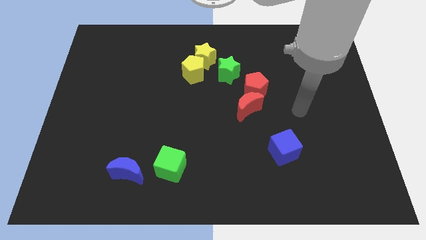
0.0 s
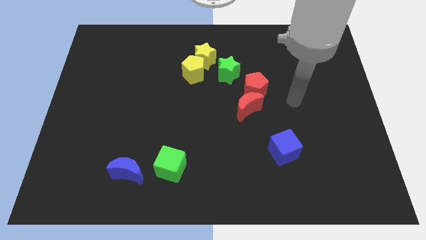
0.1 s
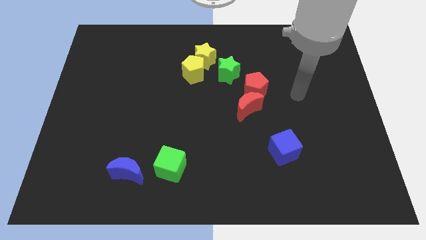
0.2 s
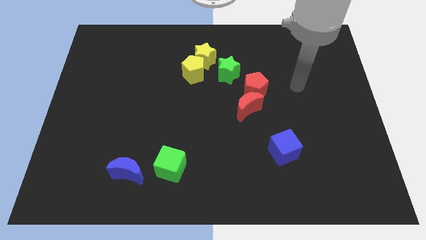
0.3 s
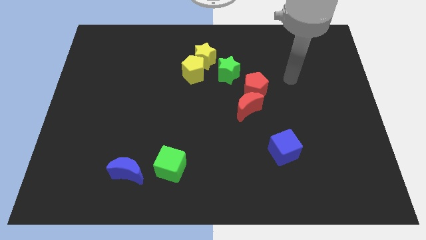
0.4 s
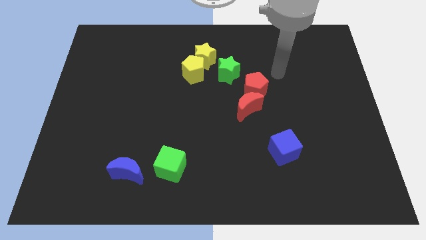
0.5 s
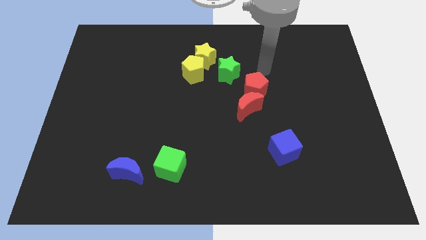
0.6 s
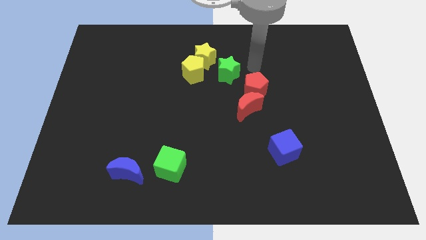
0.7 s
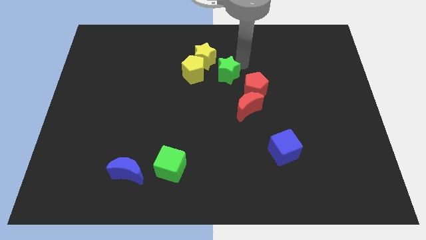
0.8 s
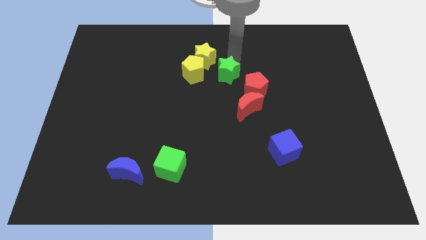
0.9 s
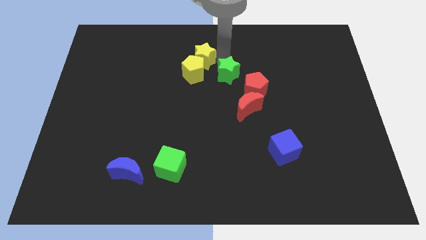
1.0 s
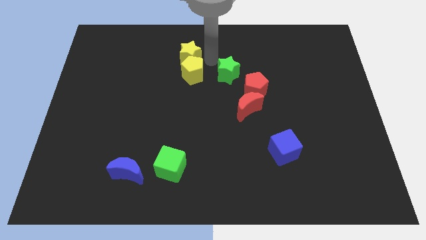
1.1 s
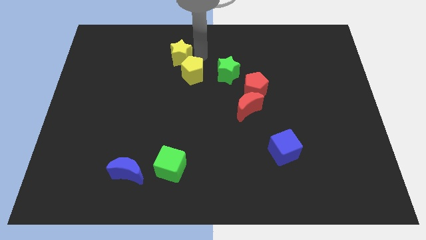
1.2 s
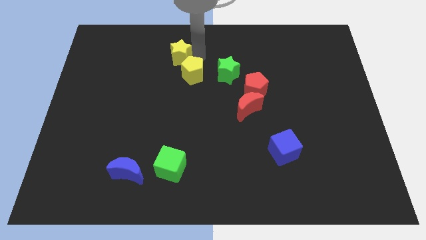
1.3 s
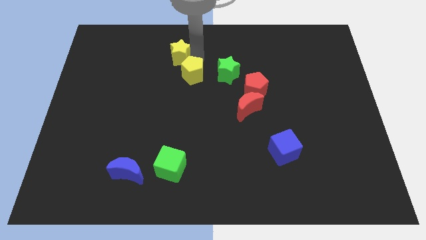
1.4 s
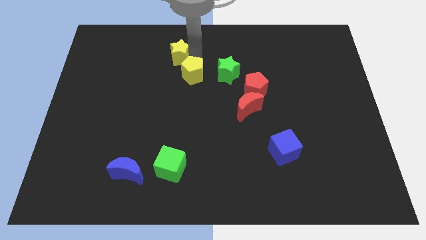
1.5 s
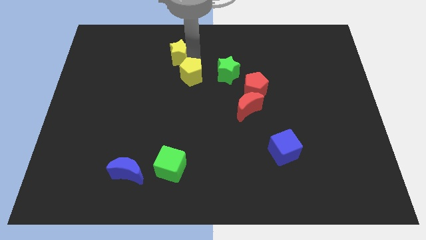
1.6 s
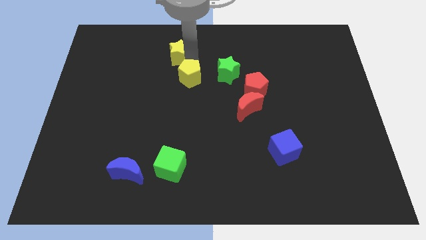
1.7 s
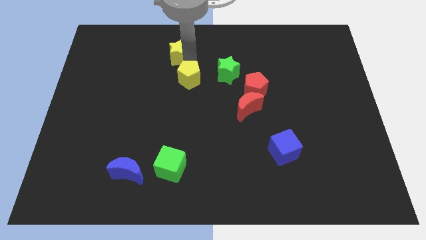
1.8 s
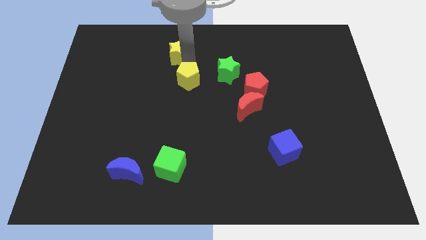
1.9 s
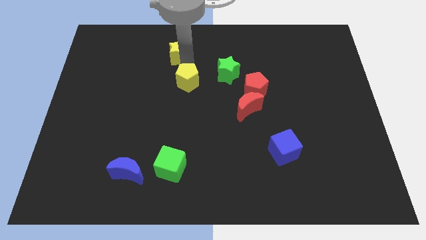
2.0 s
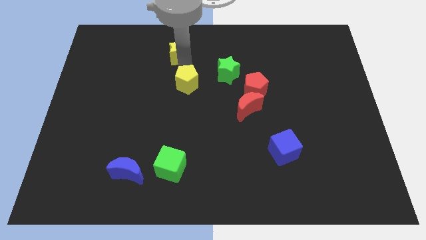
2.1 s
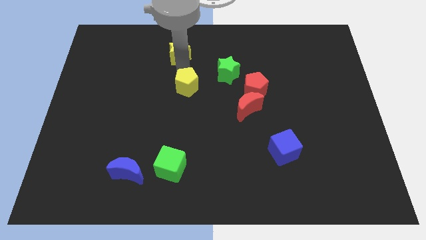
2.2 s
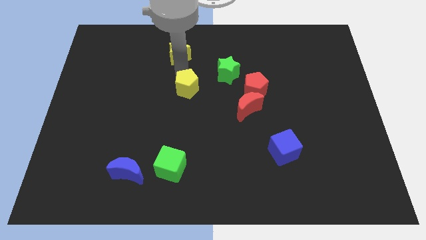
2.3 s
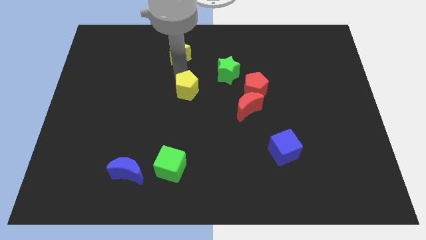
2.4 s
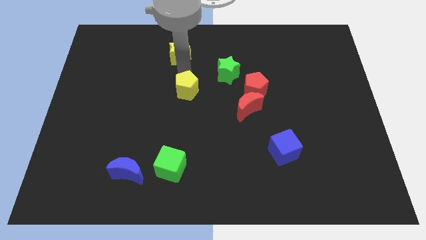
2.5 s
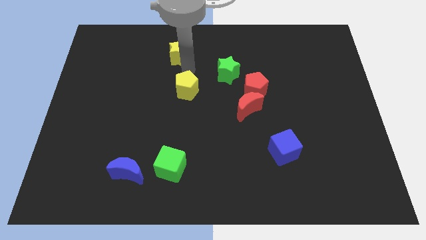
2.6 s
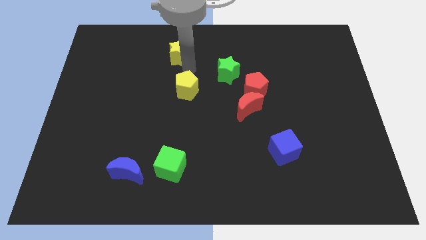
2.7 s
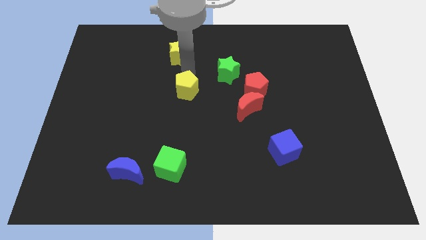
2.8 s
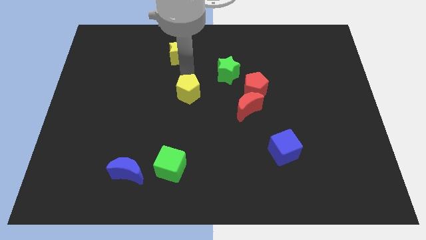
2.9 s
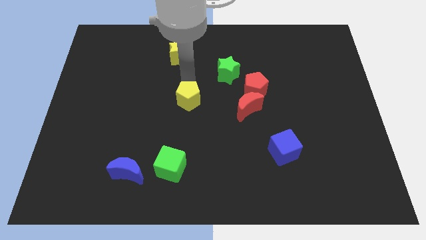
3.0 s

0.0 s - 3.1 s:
slide the yellow pentagon downwards a little bit

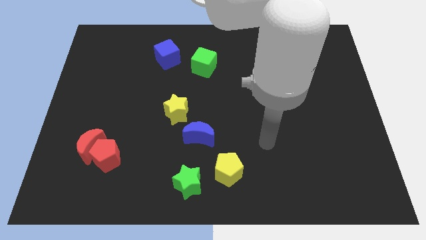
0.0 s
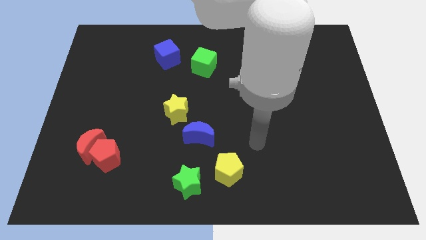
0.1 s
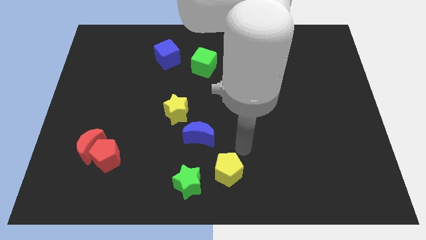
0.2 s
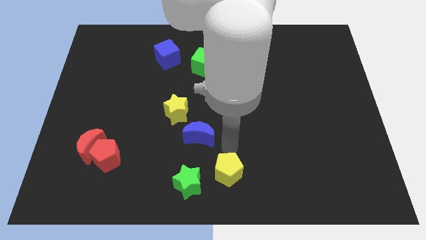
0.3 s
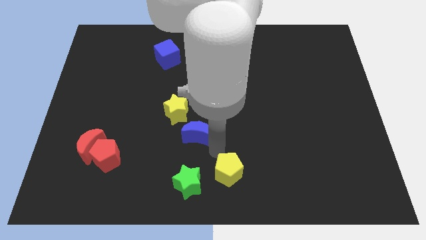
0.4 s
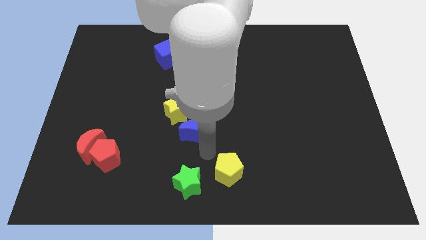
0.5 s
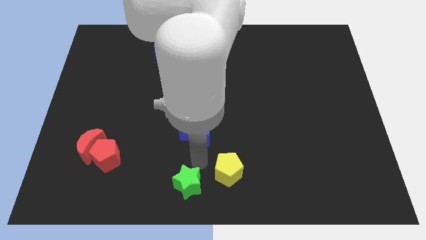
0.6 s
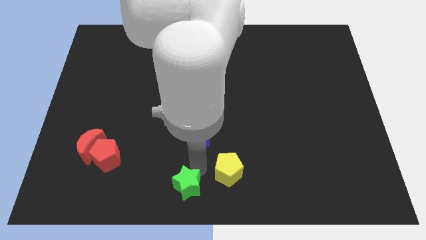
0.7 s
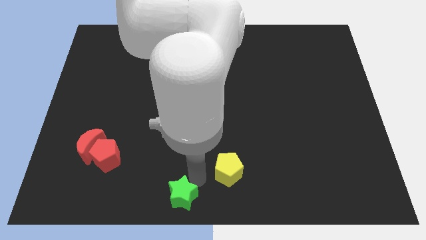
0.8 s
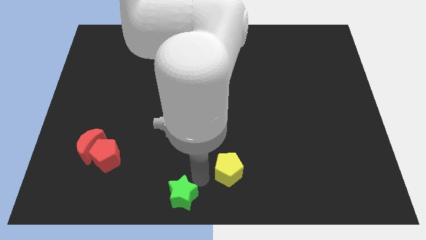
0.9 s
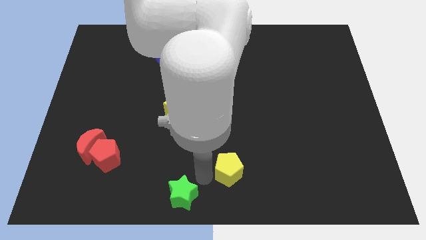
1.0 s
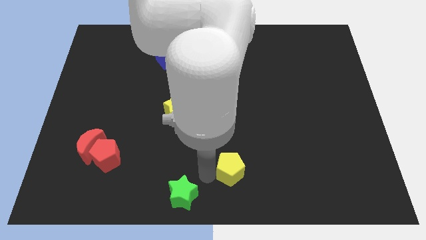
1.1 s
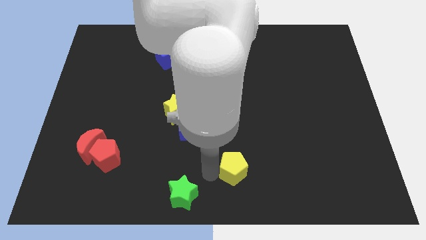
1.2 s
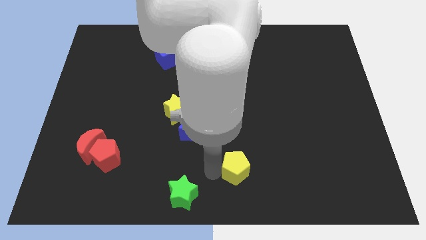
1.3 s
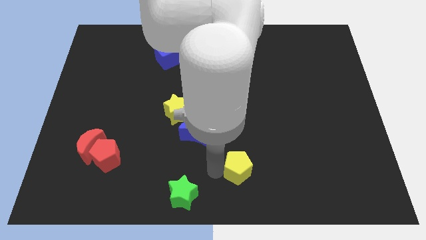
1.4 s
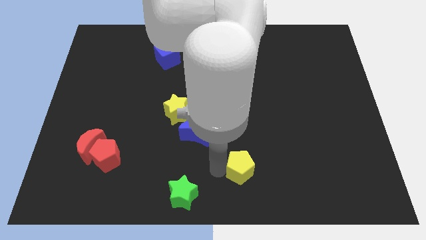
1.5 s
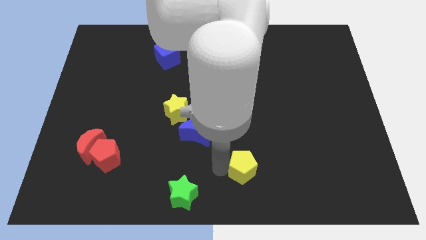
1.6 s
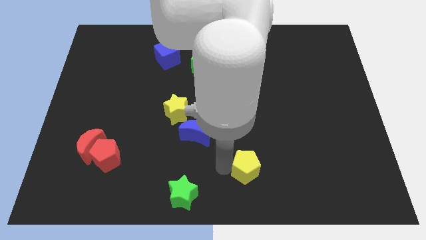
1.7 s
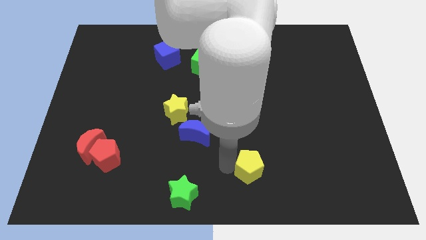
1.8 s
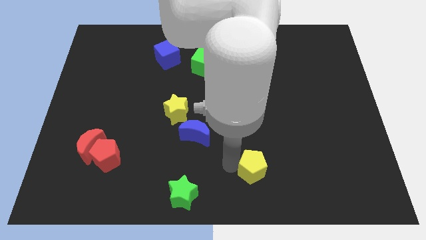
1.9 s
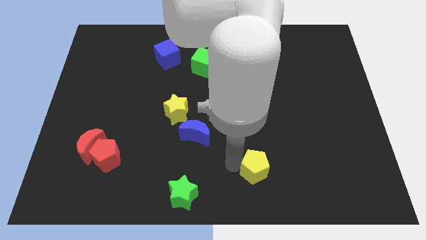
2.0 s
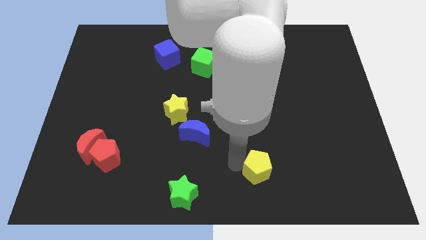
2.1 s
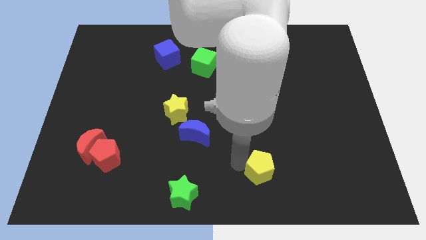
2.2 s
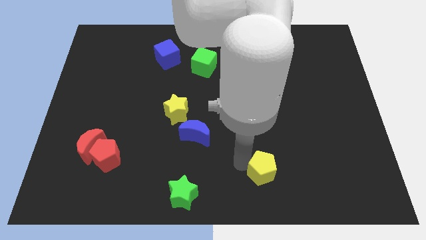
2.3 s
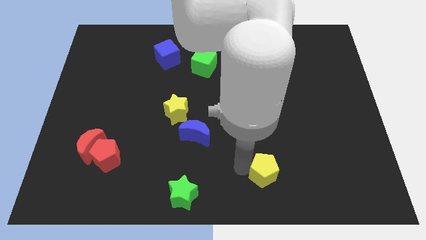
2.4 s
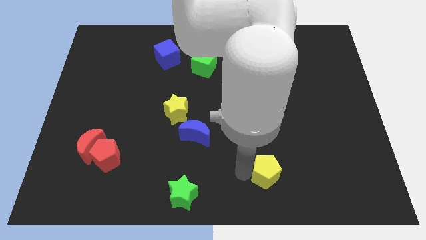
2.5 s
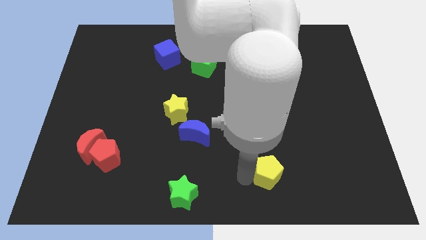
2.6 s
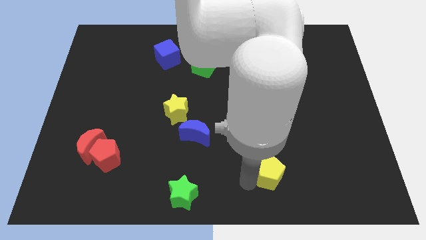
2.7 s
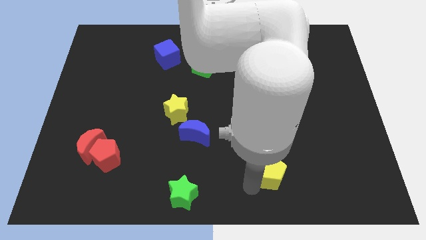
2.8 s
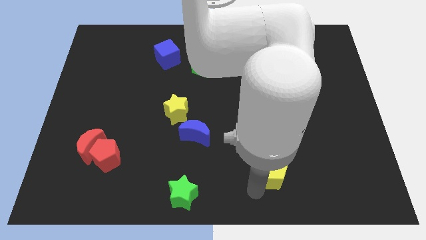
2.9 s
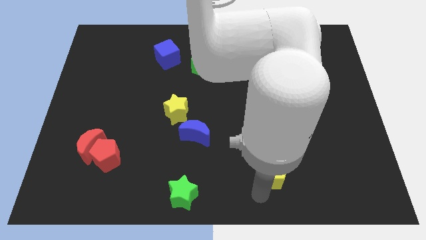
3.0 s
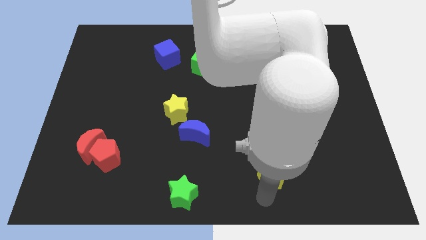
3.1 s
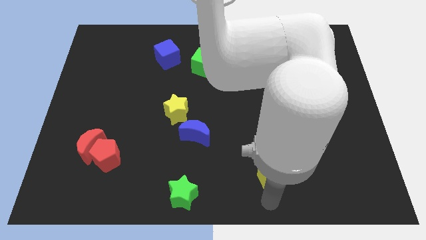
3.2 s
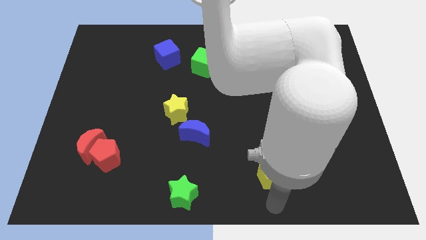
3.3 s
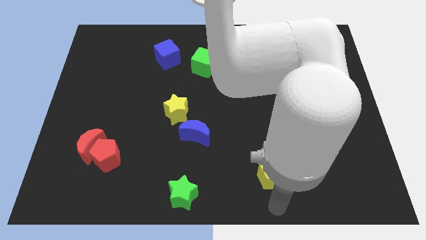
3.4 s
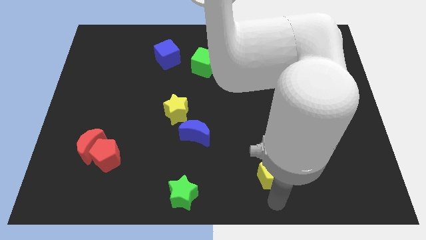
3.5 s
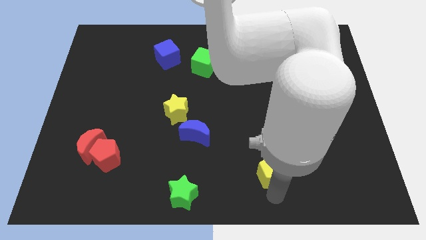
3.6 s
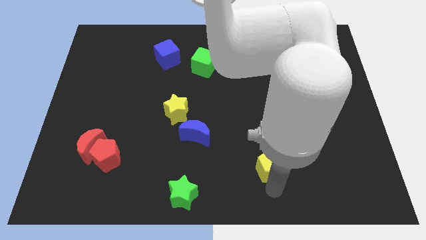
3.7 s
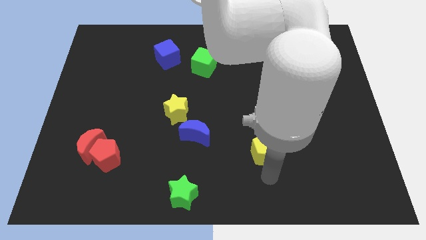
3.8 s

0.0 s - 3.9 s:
slightly push the yellow pentagon diagonally upwards and right

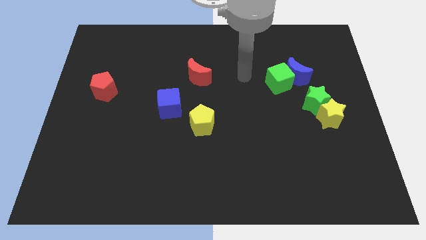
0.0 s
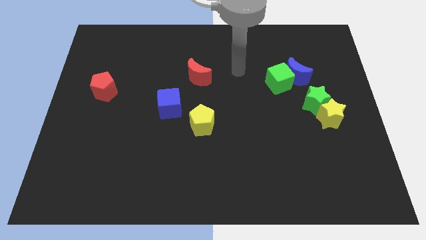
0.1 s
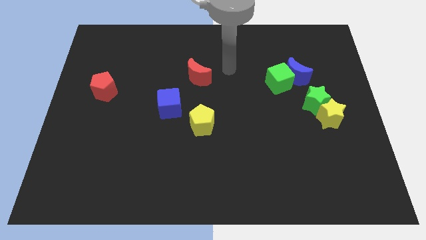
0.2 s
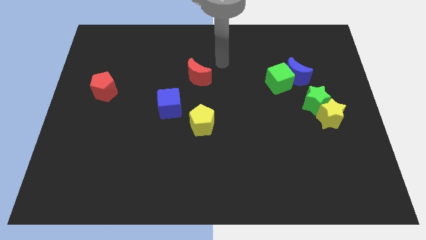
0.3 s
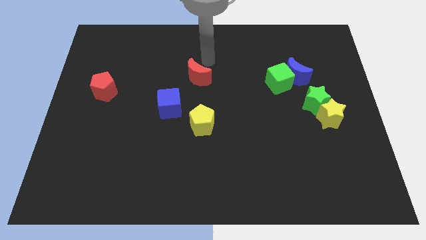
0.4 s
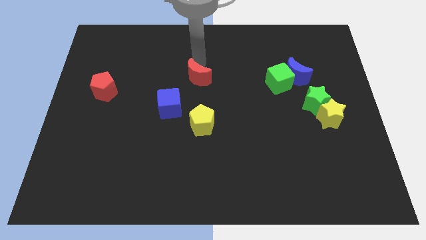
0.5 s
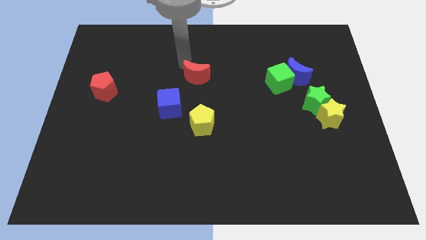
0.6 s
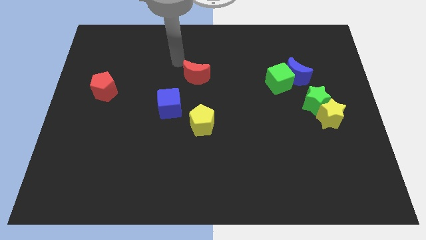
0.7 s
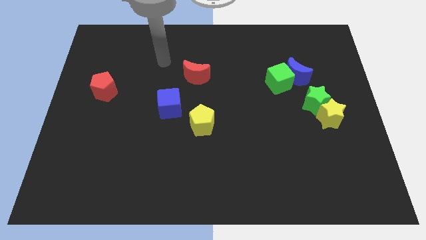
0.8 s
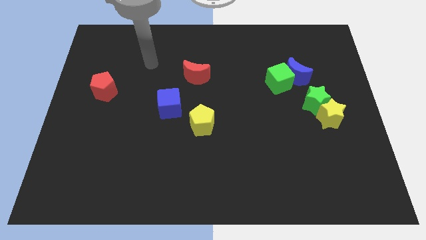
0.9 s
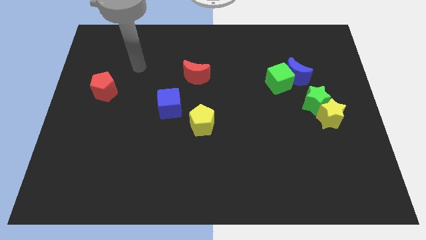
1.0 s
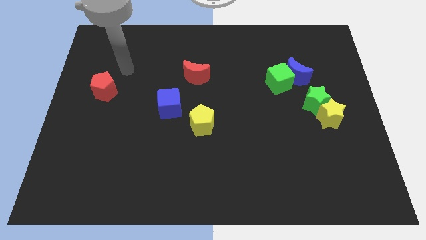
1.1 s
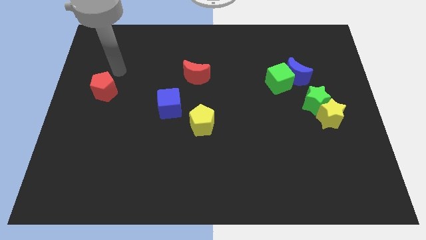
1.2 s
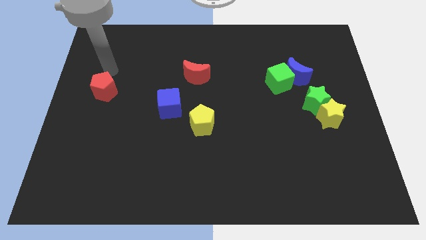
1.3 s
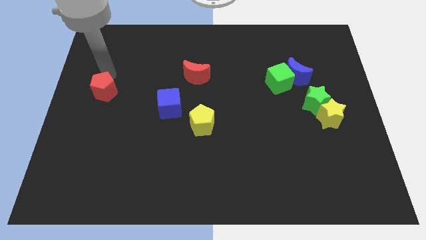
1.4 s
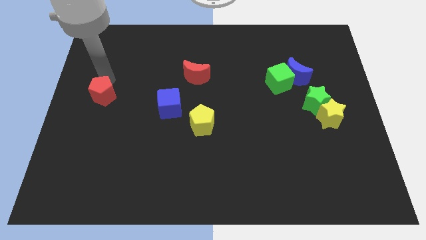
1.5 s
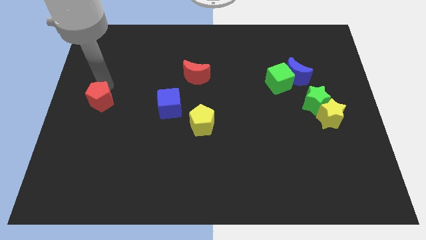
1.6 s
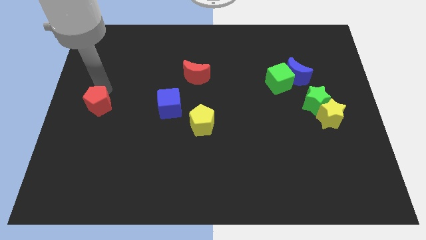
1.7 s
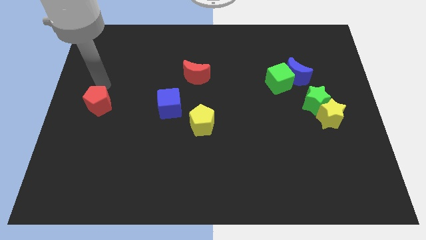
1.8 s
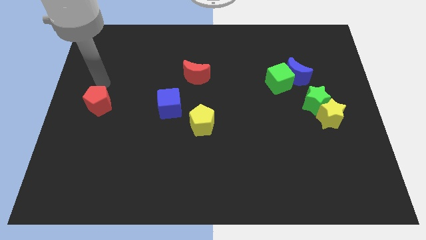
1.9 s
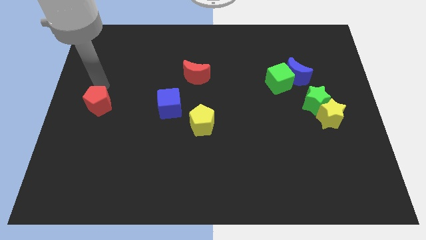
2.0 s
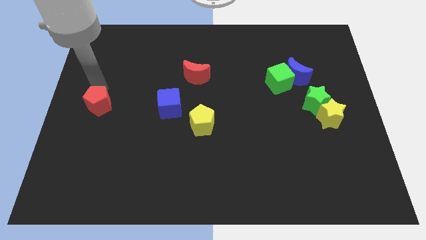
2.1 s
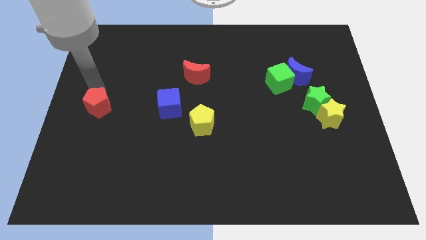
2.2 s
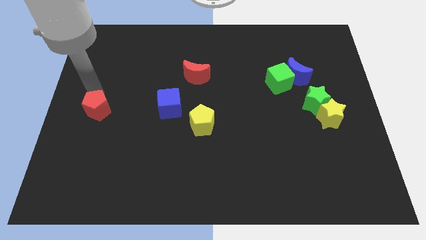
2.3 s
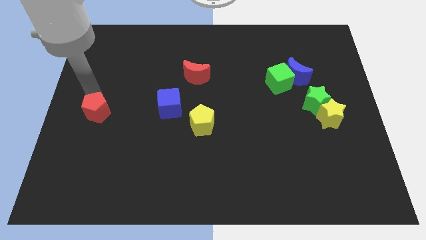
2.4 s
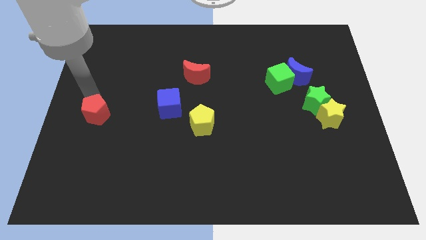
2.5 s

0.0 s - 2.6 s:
move the red pentagon a little bit down
